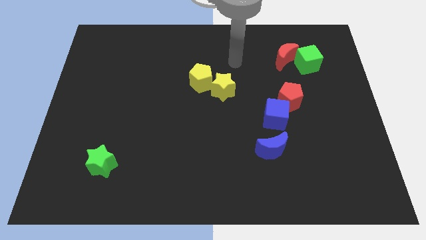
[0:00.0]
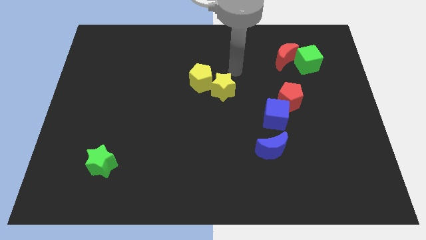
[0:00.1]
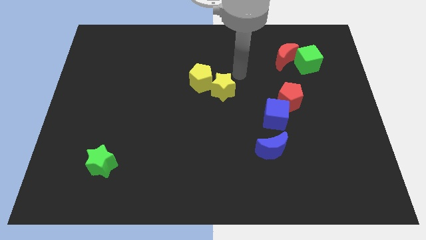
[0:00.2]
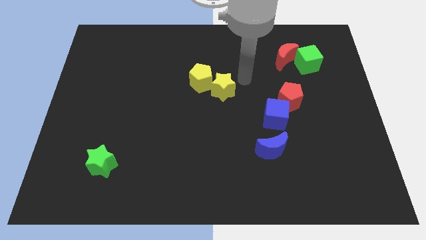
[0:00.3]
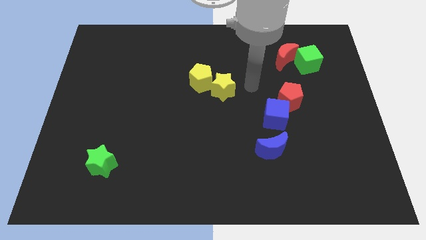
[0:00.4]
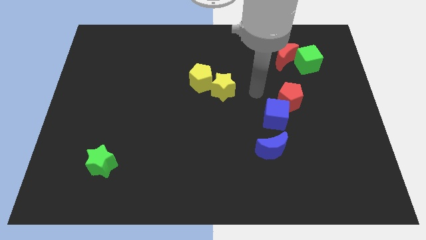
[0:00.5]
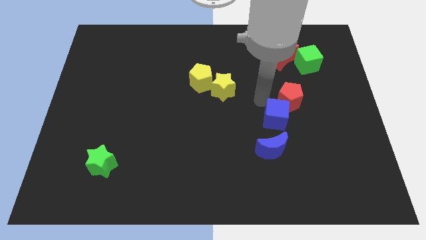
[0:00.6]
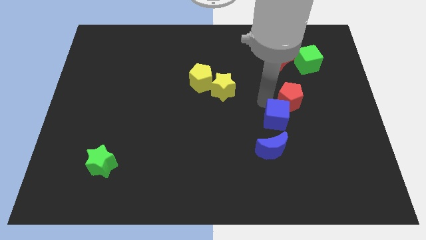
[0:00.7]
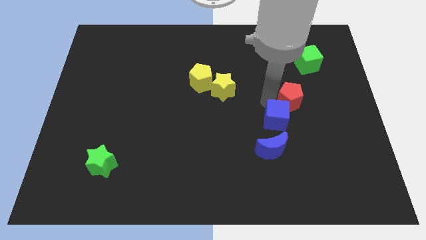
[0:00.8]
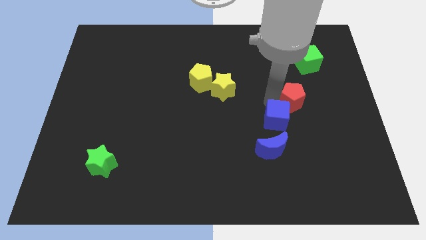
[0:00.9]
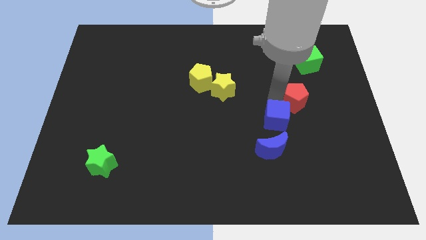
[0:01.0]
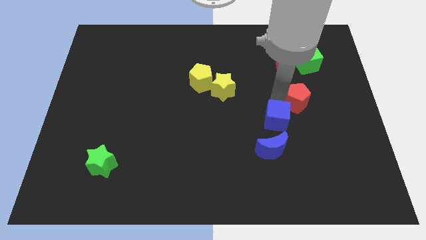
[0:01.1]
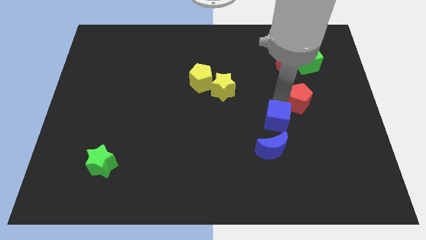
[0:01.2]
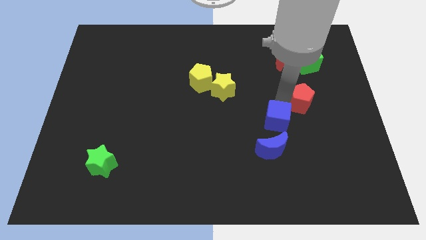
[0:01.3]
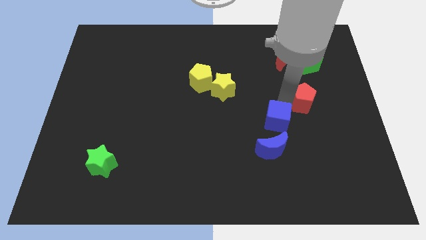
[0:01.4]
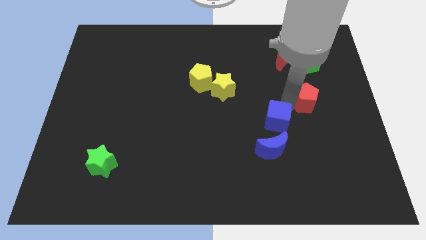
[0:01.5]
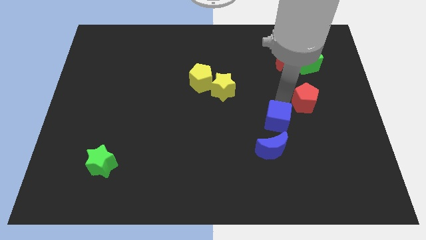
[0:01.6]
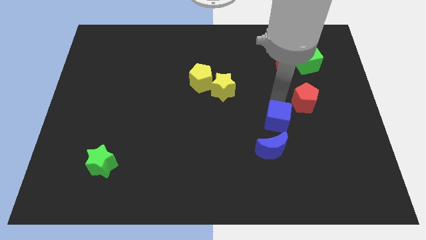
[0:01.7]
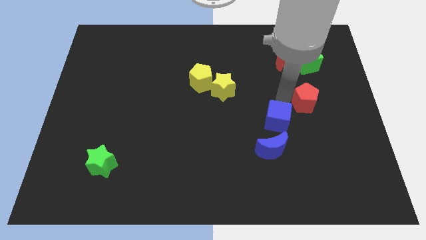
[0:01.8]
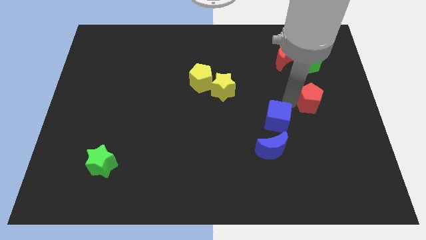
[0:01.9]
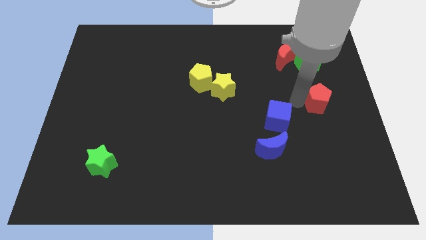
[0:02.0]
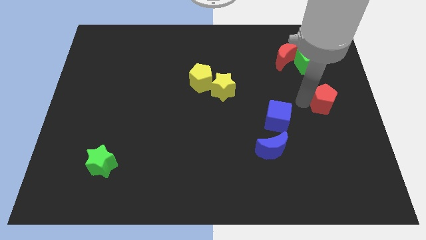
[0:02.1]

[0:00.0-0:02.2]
put the red pentagon to the center right

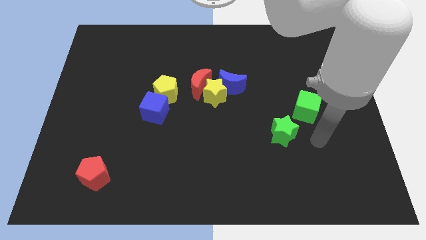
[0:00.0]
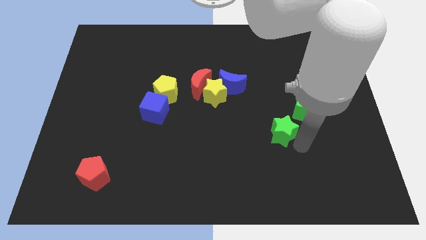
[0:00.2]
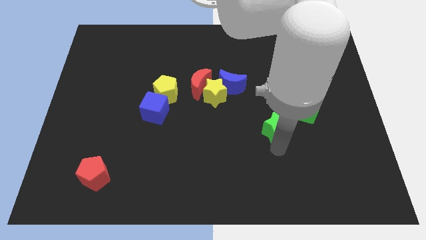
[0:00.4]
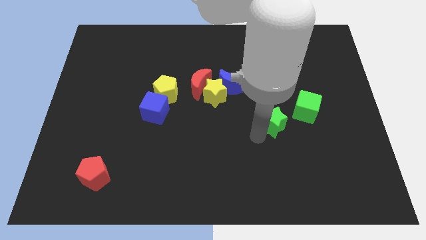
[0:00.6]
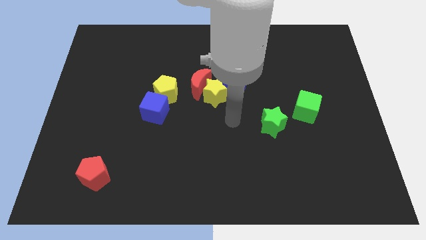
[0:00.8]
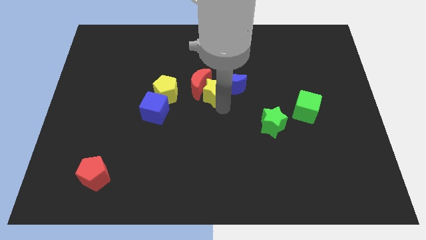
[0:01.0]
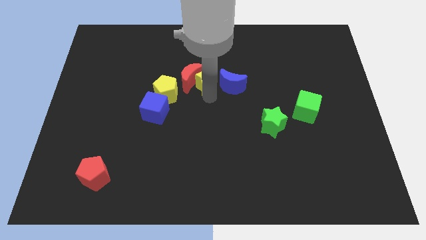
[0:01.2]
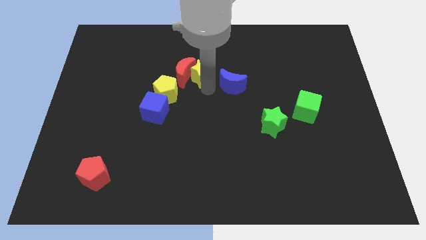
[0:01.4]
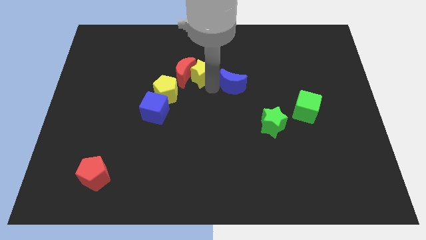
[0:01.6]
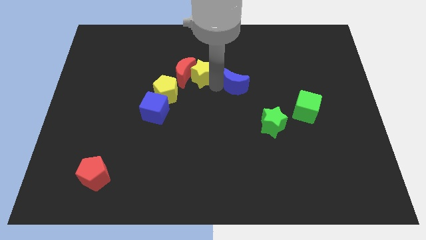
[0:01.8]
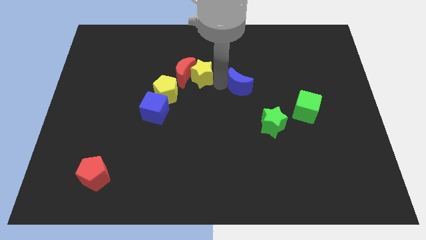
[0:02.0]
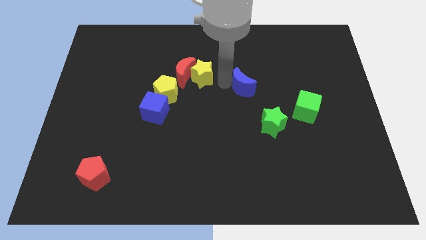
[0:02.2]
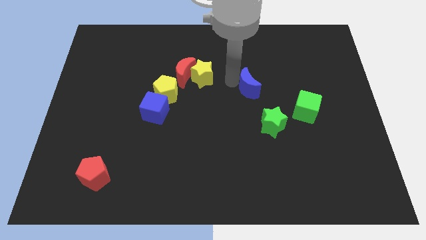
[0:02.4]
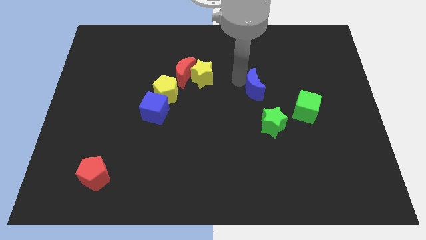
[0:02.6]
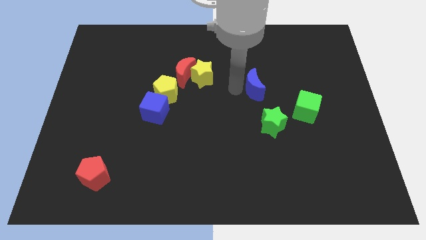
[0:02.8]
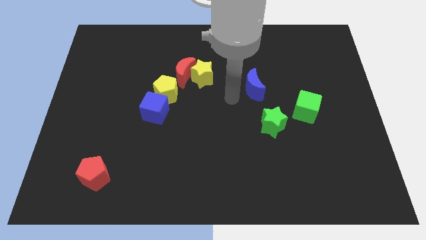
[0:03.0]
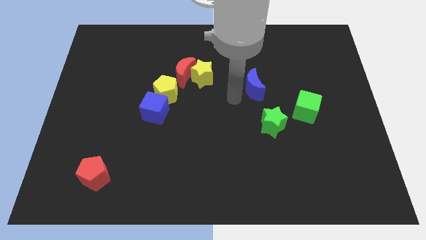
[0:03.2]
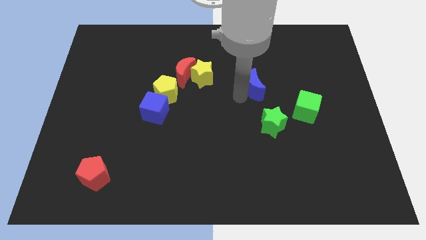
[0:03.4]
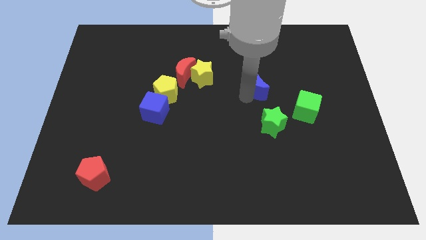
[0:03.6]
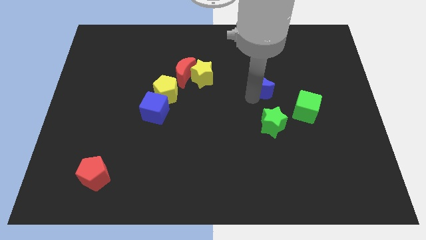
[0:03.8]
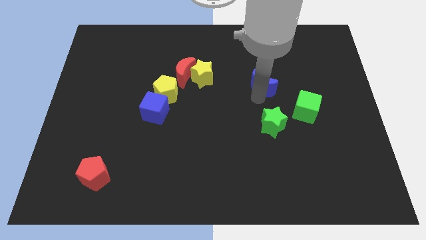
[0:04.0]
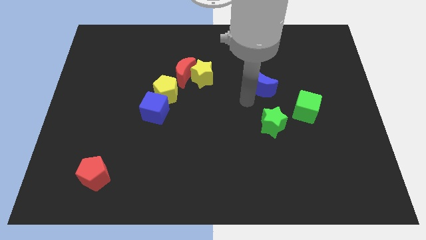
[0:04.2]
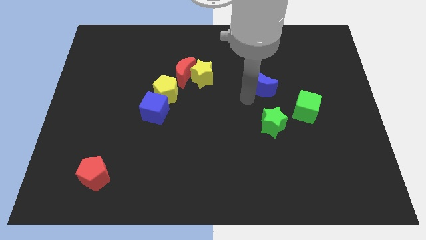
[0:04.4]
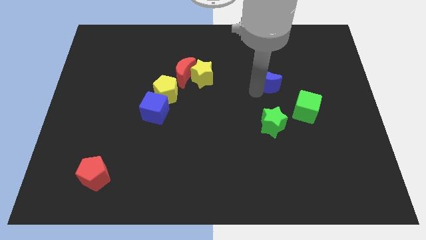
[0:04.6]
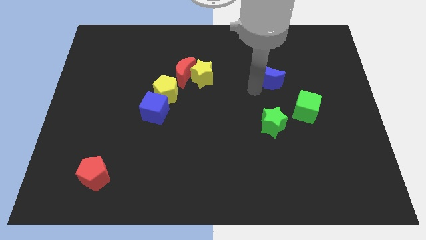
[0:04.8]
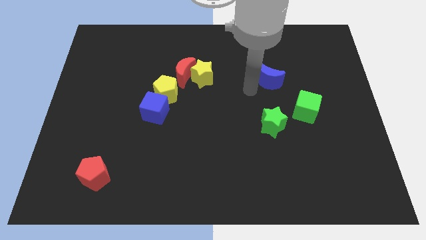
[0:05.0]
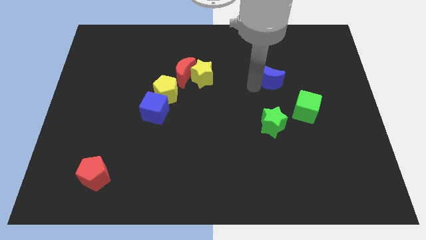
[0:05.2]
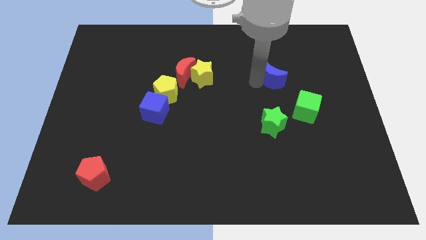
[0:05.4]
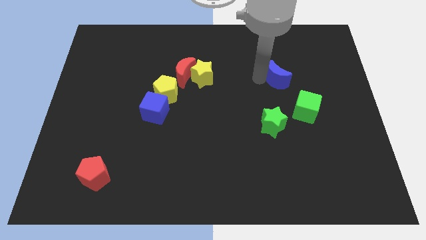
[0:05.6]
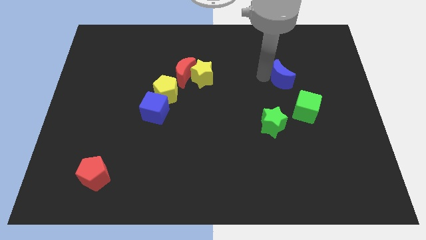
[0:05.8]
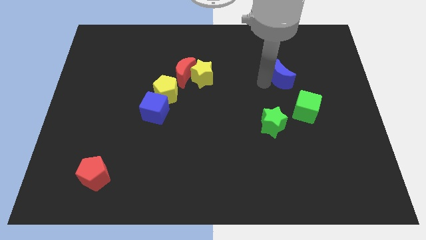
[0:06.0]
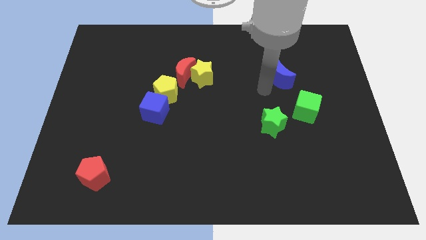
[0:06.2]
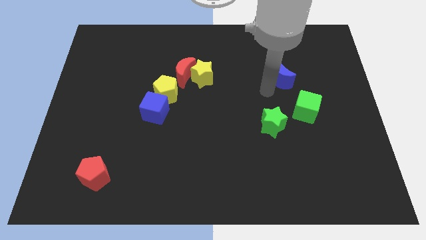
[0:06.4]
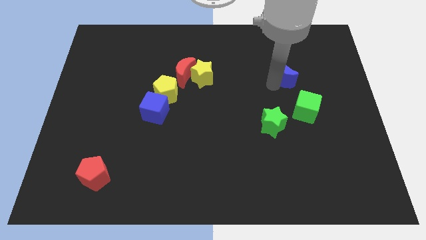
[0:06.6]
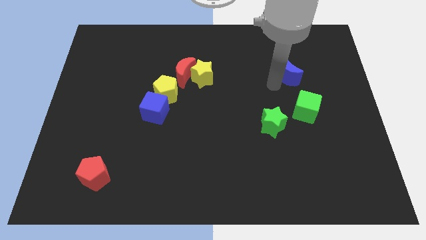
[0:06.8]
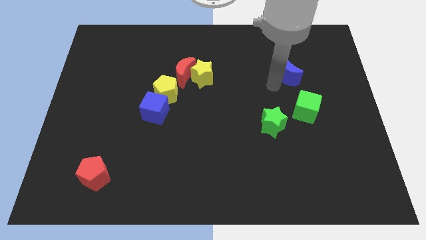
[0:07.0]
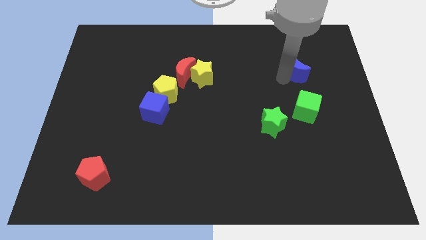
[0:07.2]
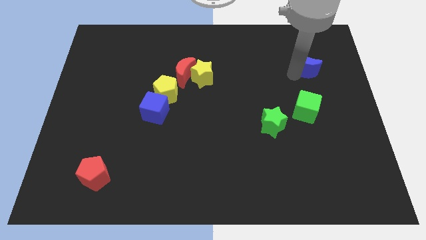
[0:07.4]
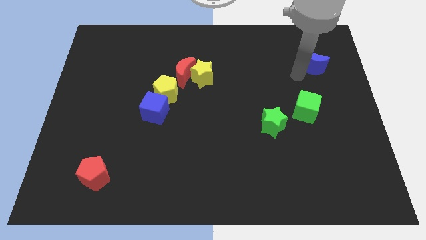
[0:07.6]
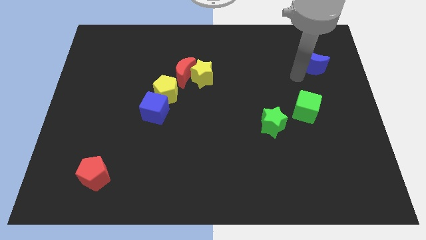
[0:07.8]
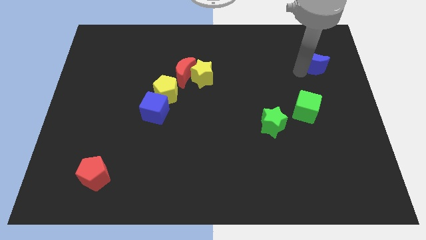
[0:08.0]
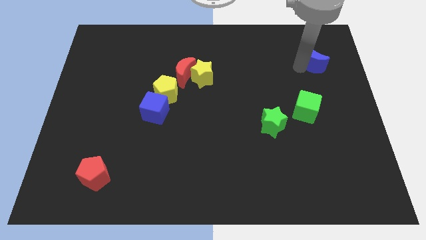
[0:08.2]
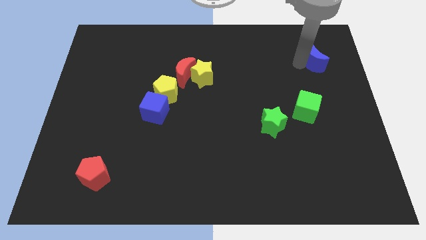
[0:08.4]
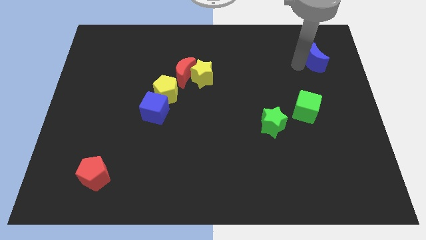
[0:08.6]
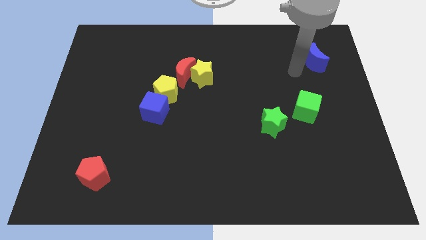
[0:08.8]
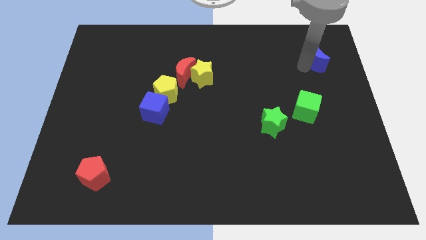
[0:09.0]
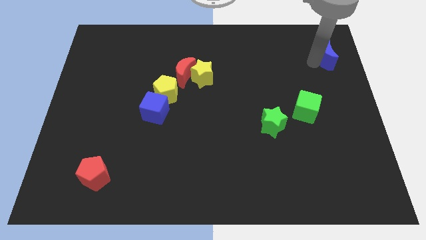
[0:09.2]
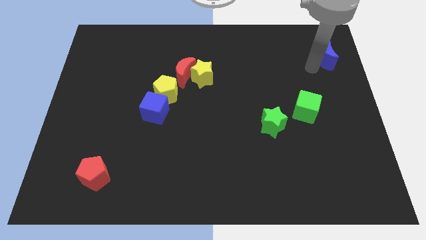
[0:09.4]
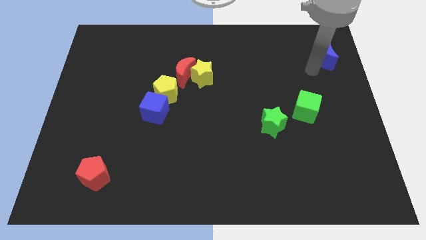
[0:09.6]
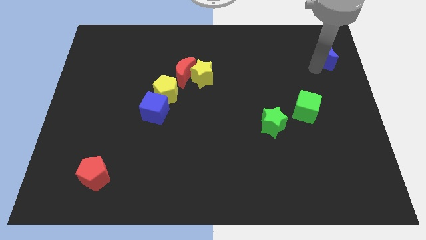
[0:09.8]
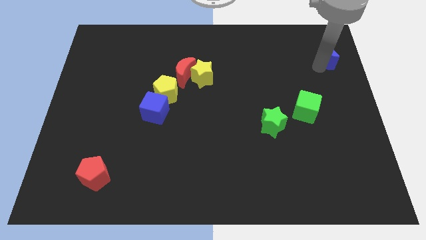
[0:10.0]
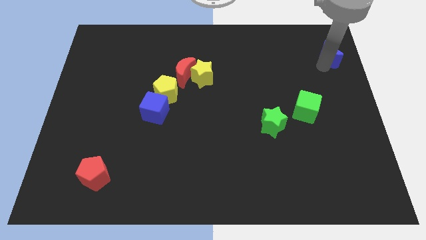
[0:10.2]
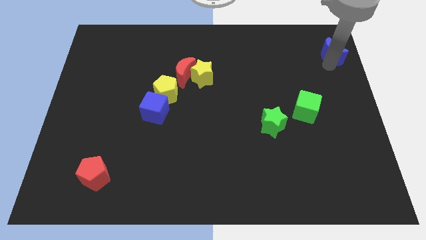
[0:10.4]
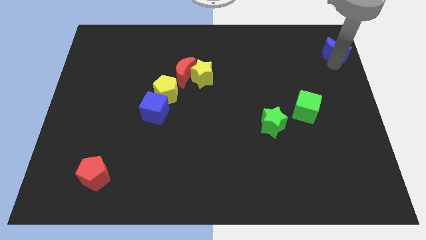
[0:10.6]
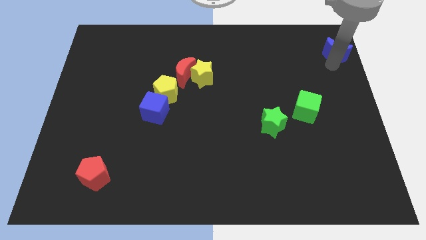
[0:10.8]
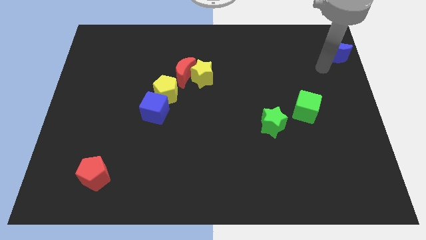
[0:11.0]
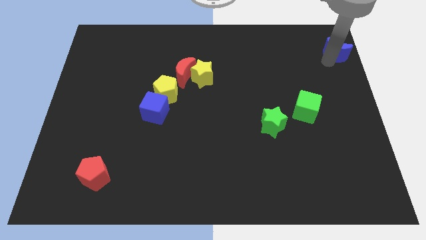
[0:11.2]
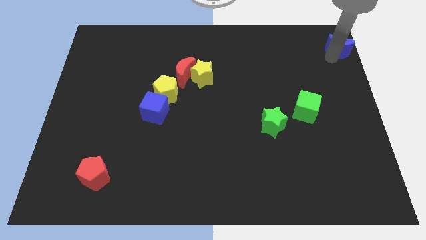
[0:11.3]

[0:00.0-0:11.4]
put the blue moon to the top right corner

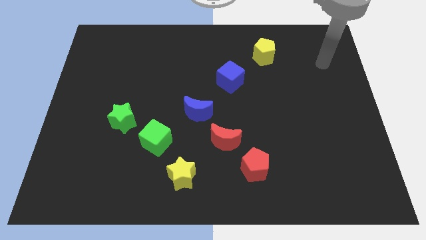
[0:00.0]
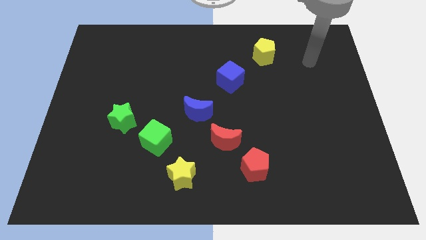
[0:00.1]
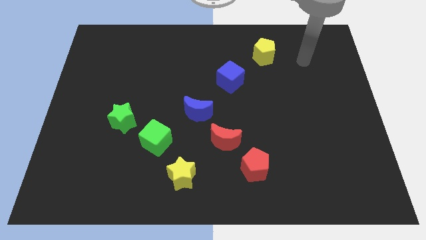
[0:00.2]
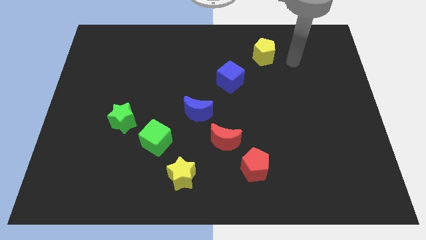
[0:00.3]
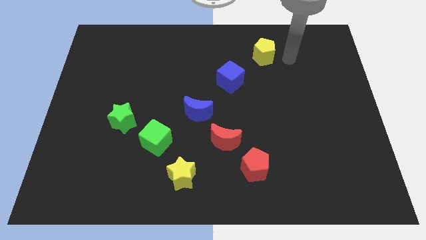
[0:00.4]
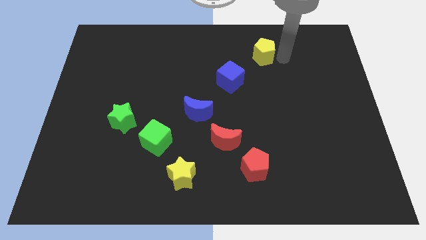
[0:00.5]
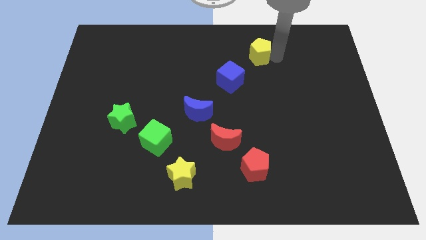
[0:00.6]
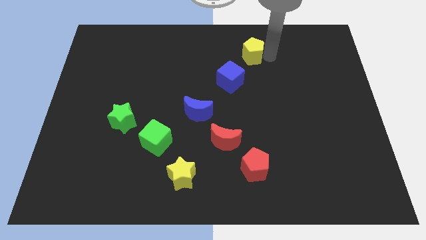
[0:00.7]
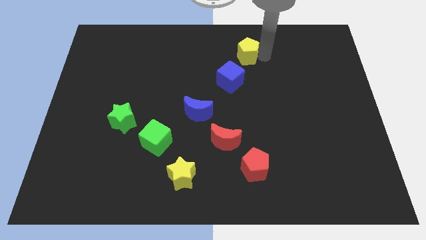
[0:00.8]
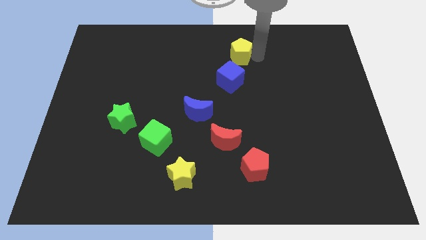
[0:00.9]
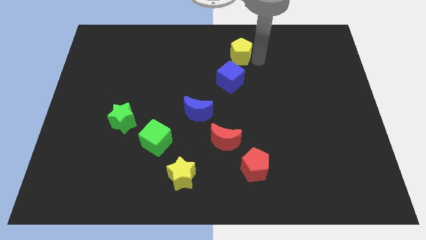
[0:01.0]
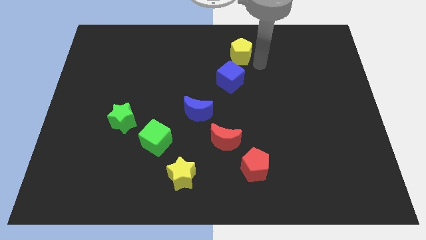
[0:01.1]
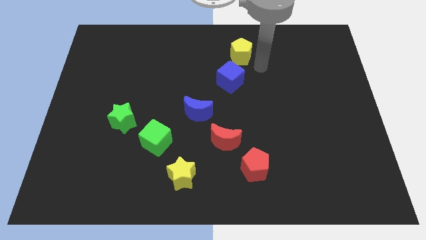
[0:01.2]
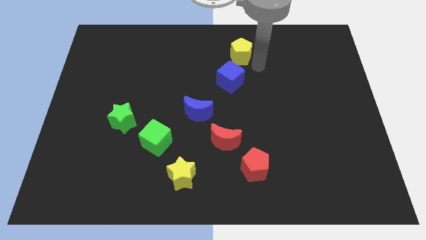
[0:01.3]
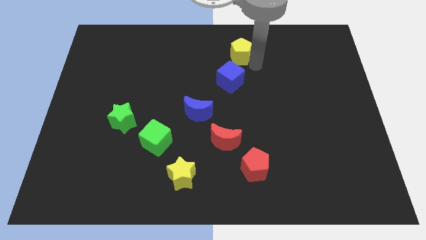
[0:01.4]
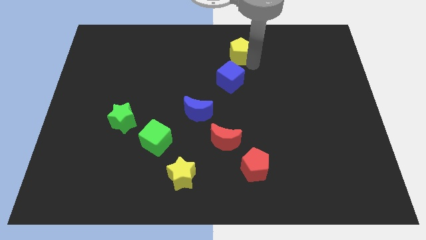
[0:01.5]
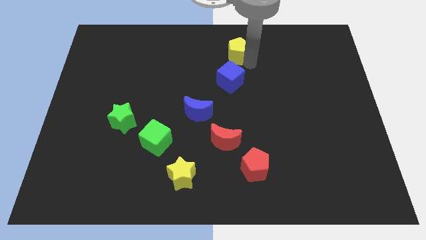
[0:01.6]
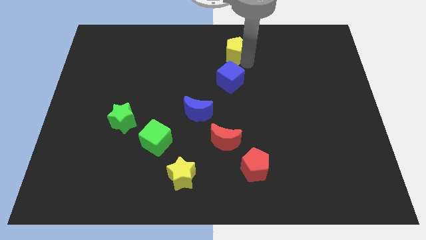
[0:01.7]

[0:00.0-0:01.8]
put the yellow pentagon to the top
